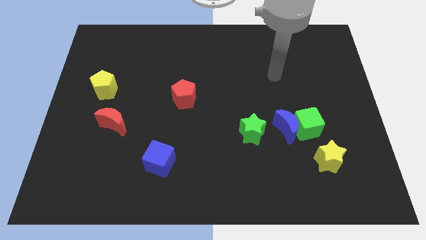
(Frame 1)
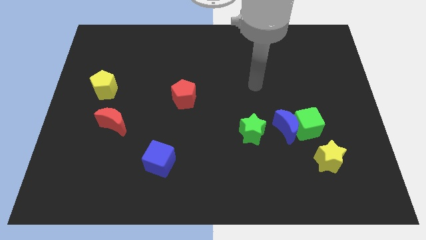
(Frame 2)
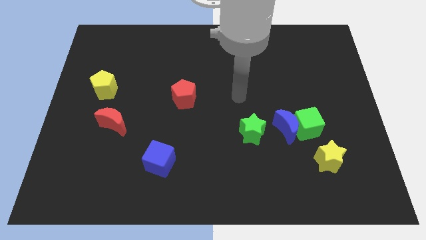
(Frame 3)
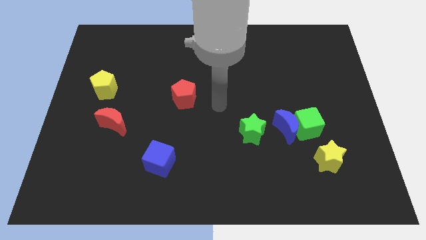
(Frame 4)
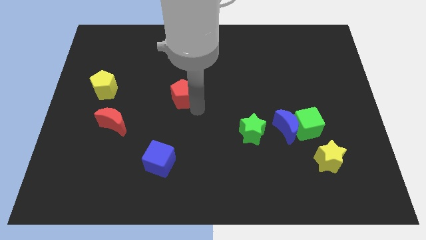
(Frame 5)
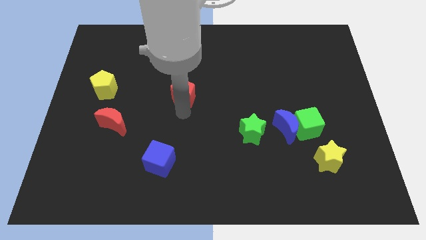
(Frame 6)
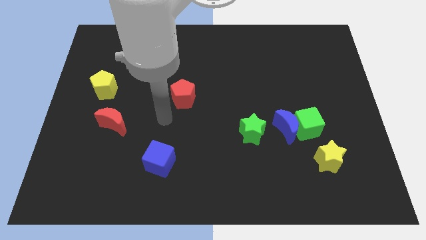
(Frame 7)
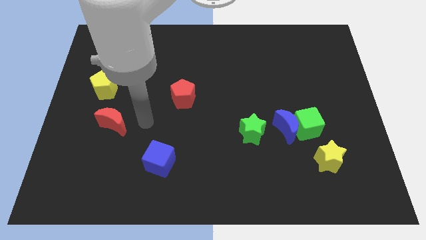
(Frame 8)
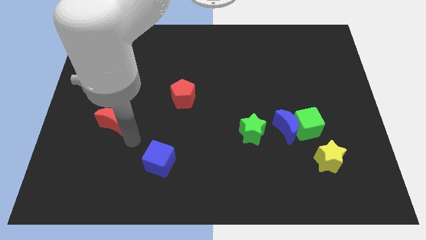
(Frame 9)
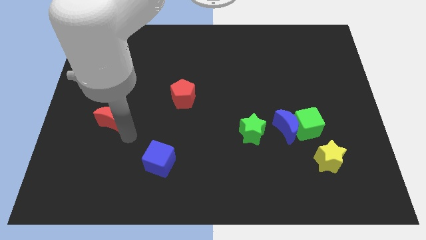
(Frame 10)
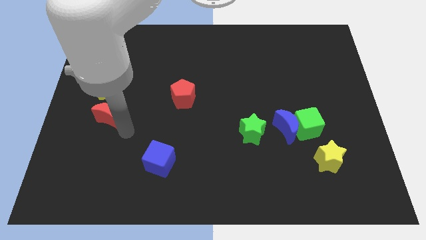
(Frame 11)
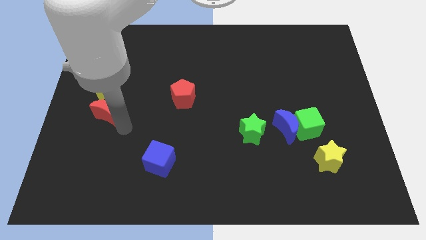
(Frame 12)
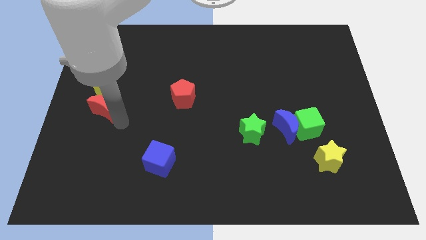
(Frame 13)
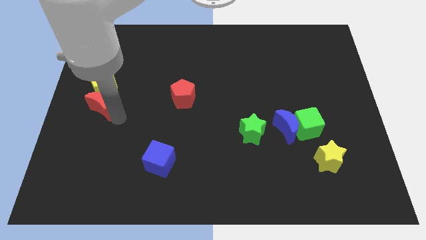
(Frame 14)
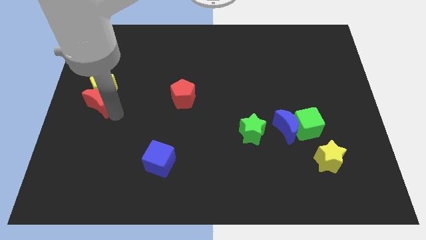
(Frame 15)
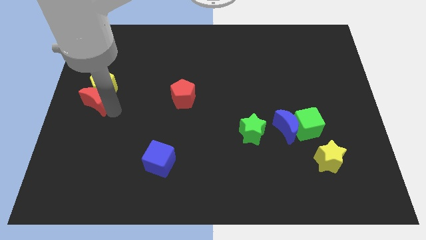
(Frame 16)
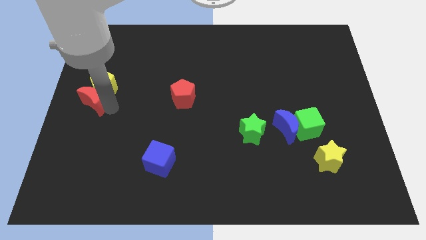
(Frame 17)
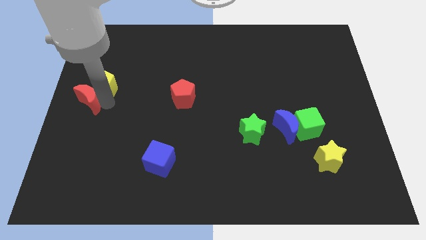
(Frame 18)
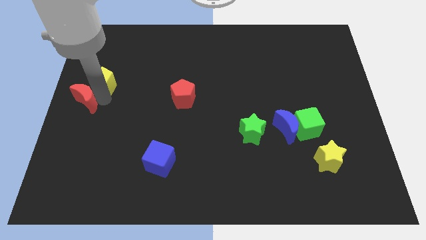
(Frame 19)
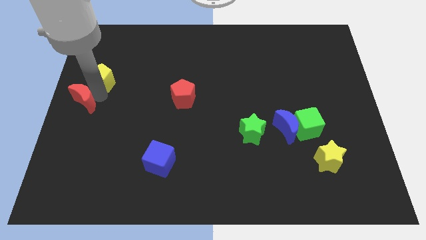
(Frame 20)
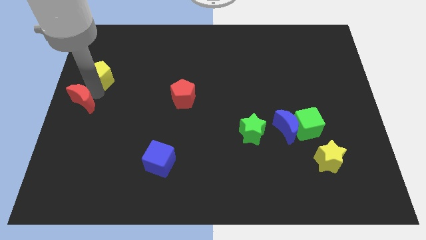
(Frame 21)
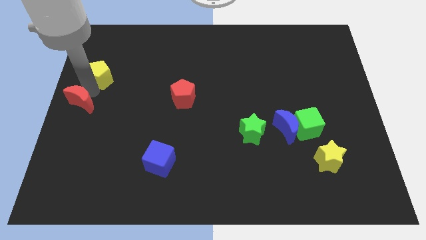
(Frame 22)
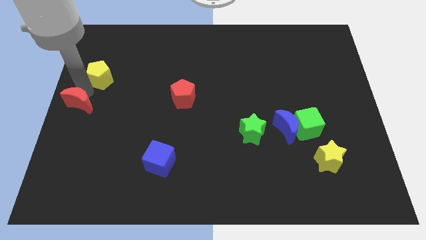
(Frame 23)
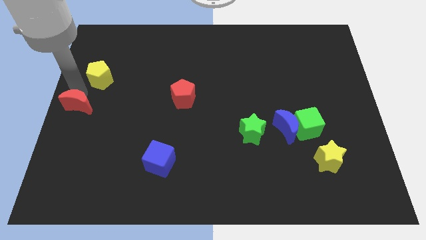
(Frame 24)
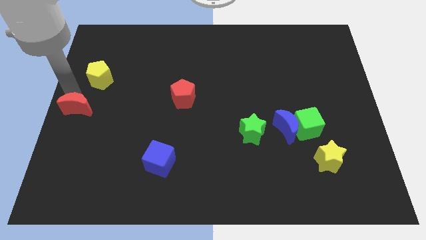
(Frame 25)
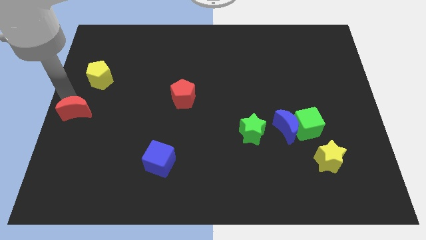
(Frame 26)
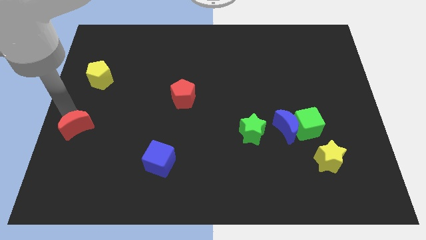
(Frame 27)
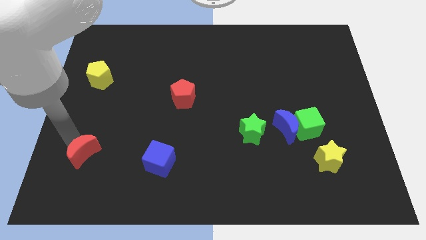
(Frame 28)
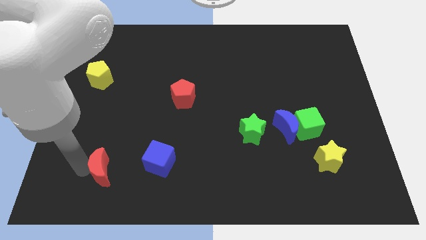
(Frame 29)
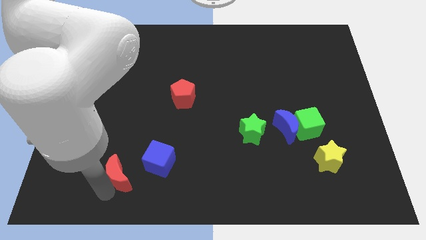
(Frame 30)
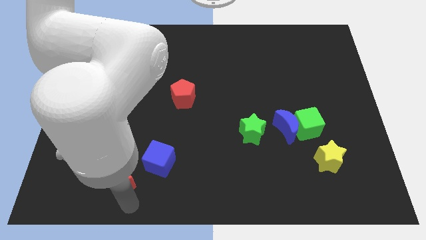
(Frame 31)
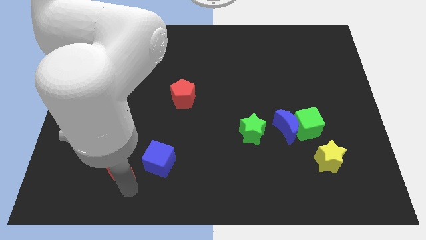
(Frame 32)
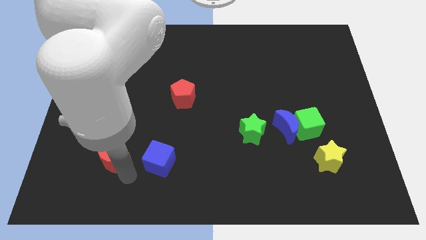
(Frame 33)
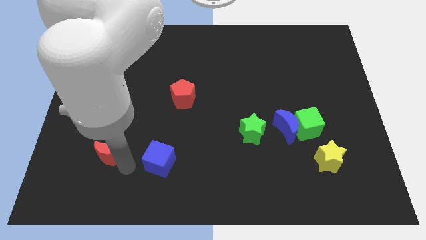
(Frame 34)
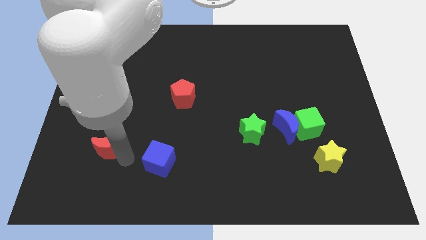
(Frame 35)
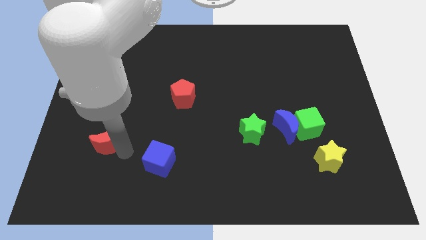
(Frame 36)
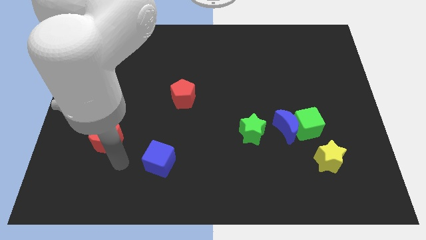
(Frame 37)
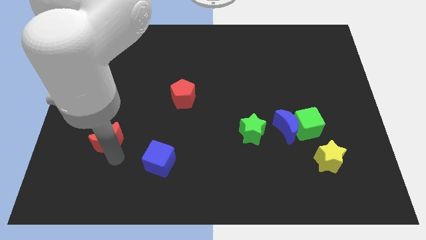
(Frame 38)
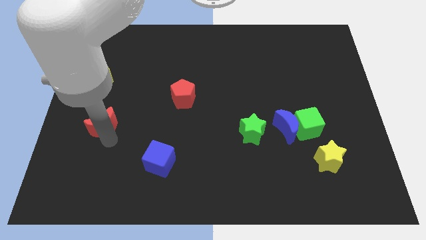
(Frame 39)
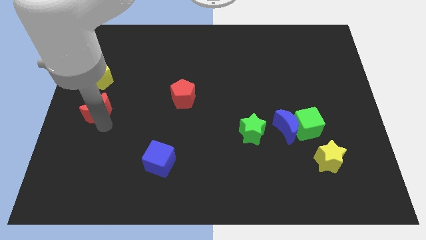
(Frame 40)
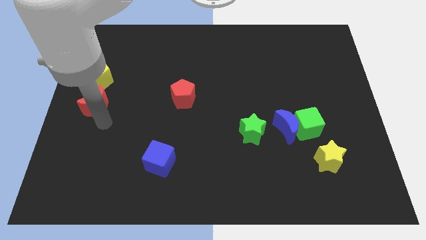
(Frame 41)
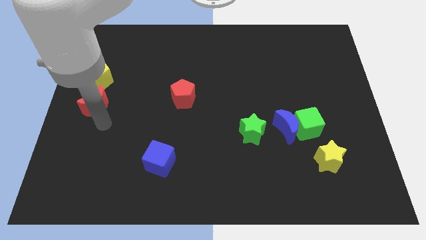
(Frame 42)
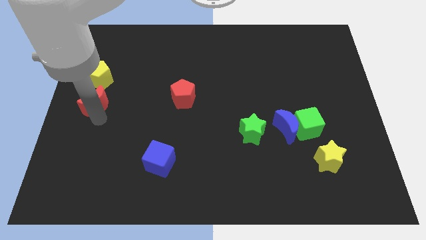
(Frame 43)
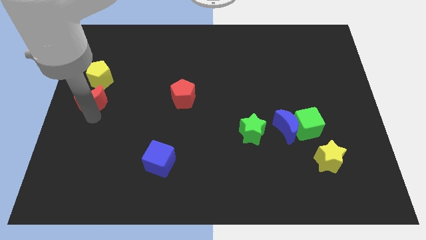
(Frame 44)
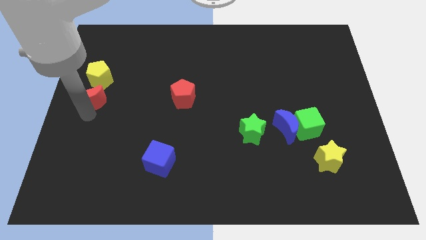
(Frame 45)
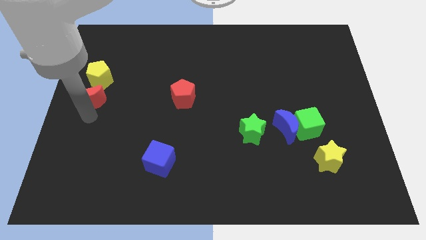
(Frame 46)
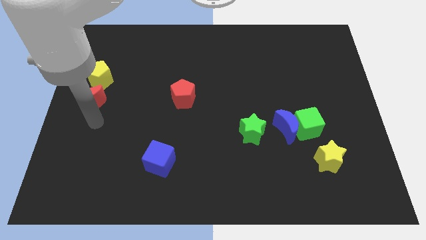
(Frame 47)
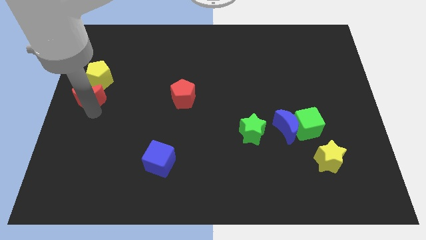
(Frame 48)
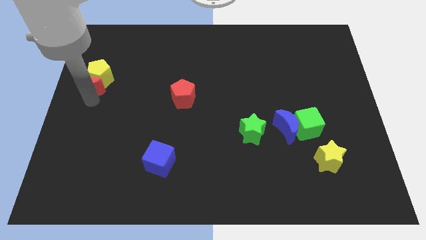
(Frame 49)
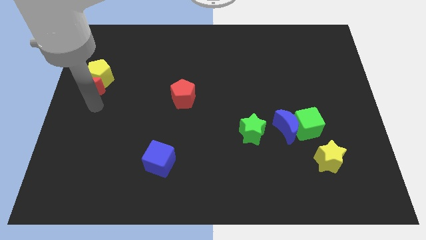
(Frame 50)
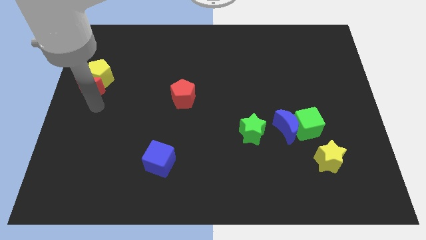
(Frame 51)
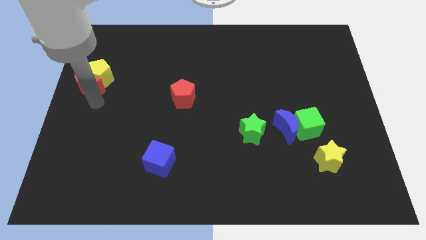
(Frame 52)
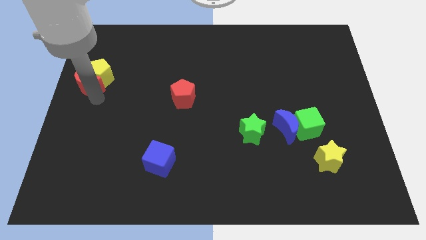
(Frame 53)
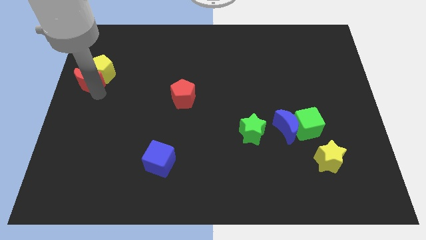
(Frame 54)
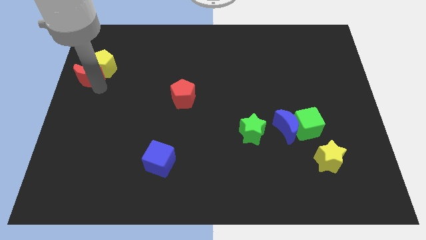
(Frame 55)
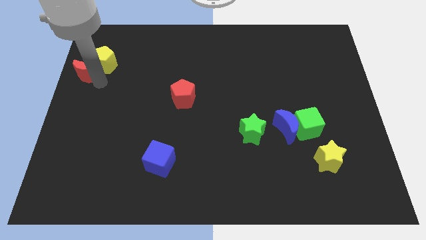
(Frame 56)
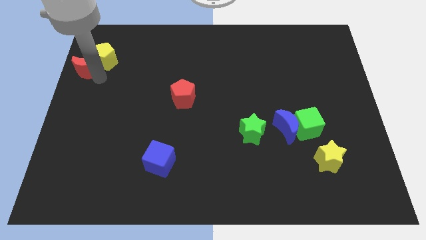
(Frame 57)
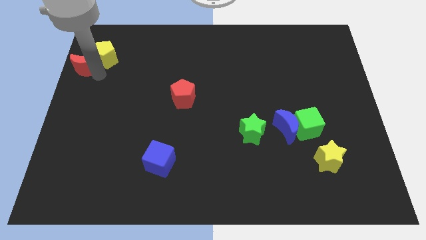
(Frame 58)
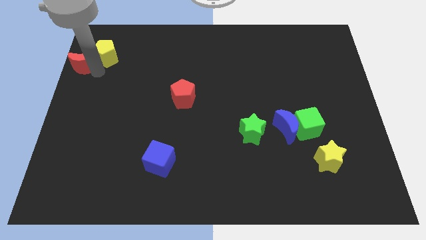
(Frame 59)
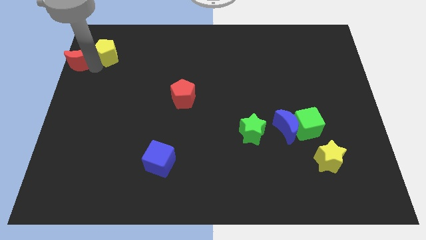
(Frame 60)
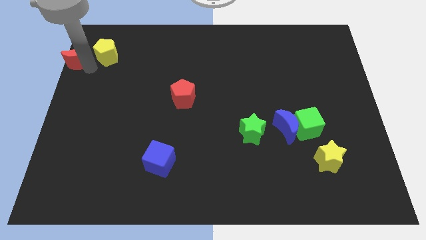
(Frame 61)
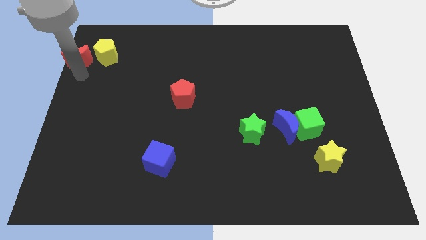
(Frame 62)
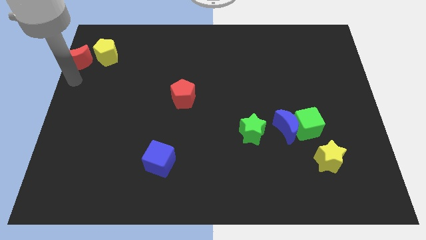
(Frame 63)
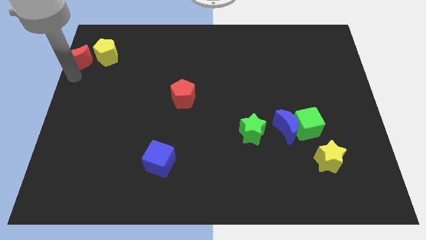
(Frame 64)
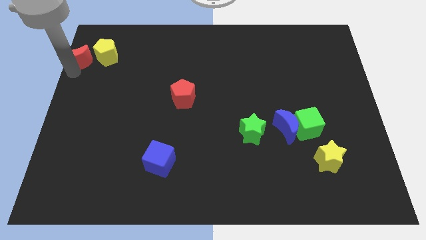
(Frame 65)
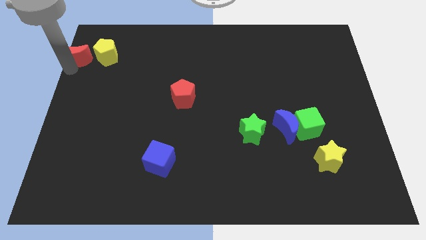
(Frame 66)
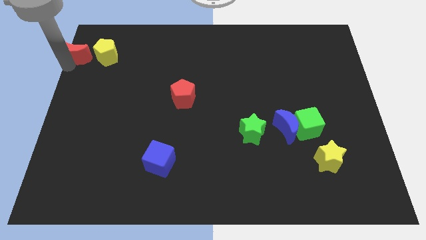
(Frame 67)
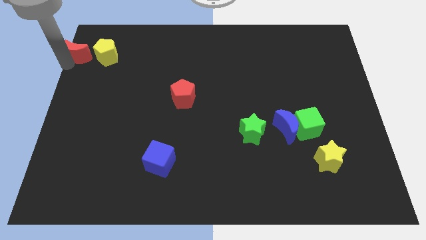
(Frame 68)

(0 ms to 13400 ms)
move the red moon to the upper left corner
